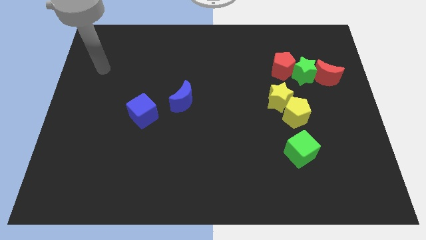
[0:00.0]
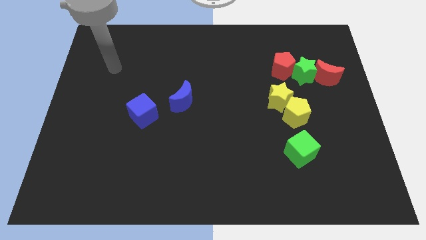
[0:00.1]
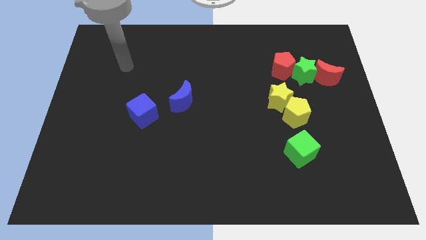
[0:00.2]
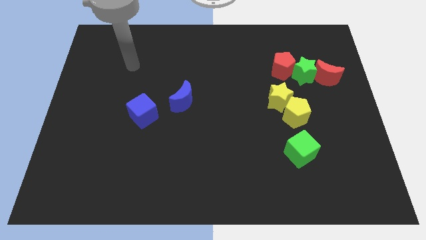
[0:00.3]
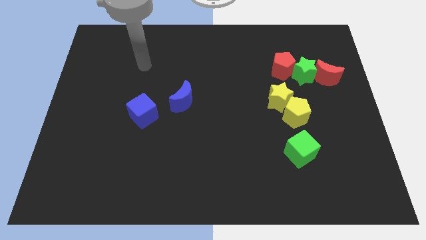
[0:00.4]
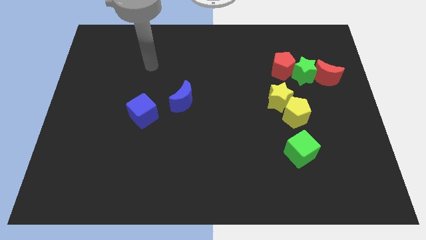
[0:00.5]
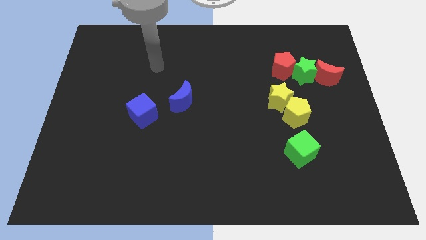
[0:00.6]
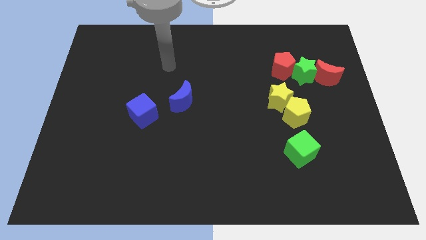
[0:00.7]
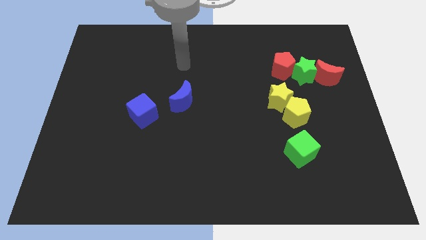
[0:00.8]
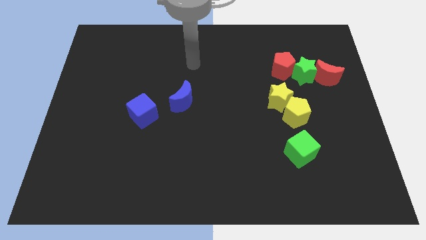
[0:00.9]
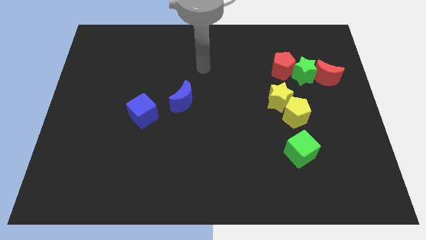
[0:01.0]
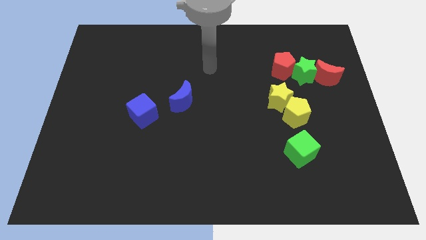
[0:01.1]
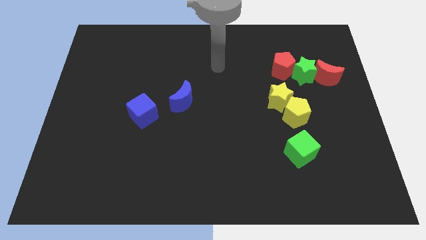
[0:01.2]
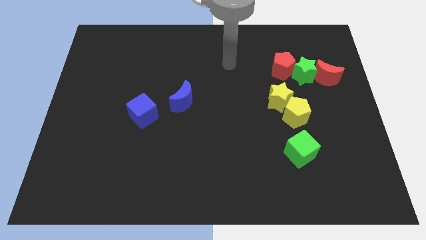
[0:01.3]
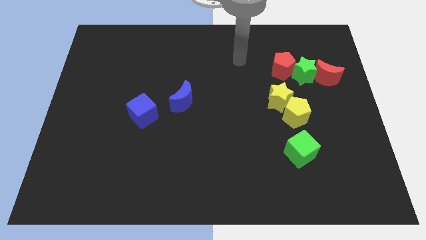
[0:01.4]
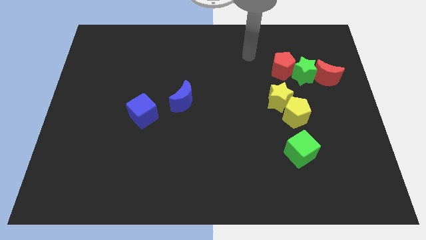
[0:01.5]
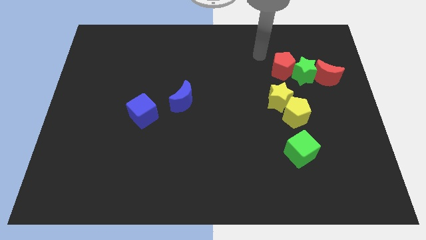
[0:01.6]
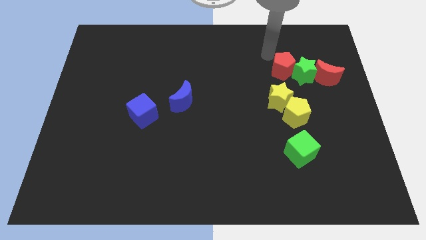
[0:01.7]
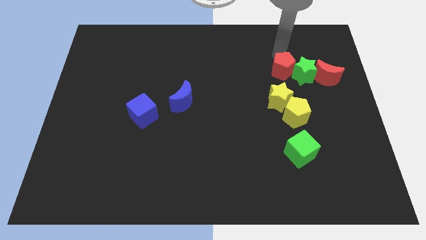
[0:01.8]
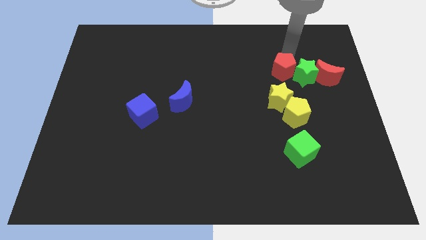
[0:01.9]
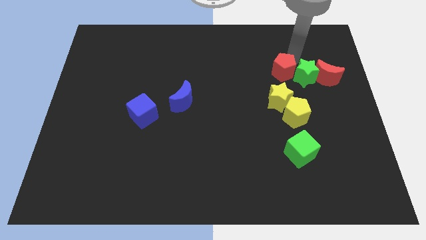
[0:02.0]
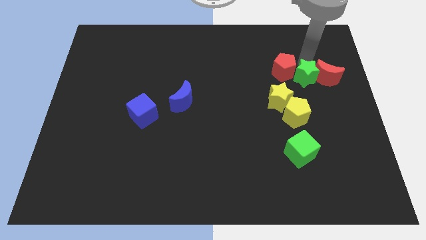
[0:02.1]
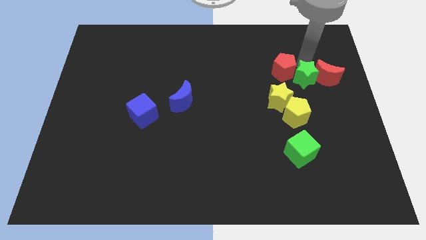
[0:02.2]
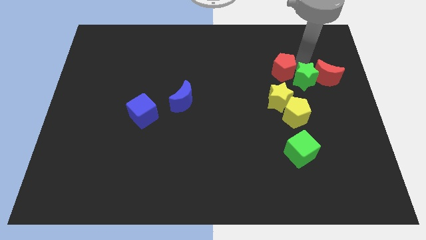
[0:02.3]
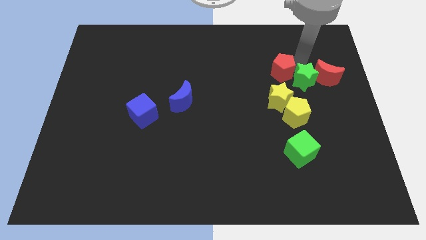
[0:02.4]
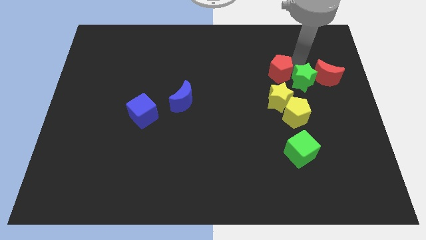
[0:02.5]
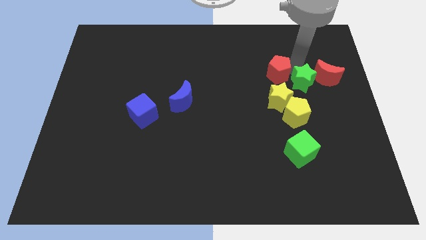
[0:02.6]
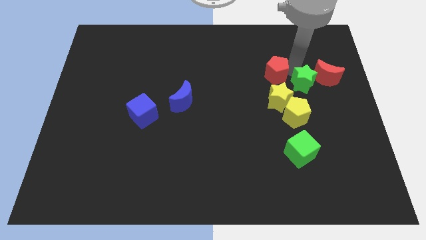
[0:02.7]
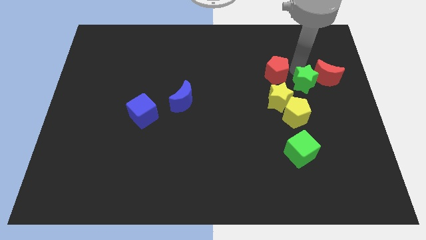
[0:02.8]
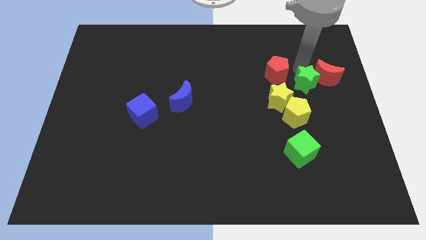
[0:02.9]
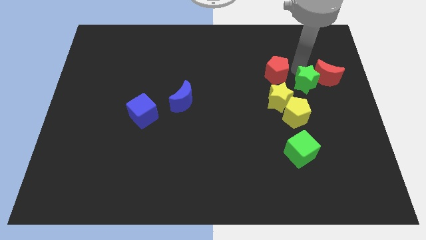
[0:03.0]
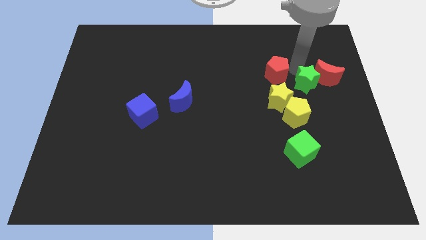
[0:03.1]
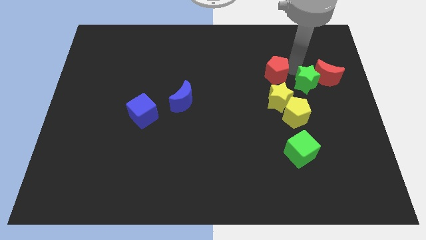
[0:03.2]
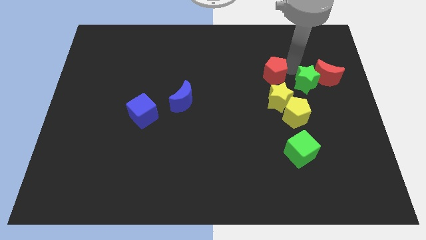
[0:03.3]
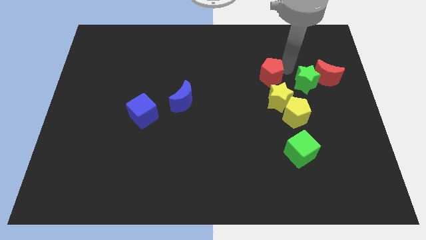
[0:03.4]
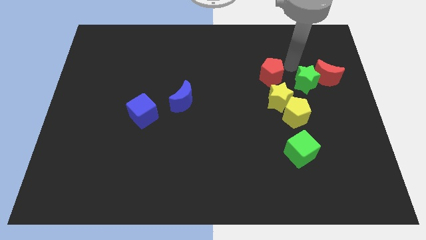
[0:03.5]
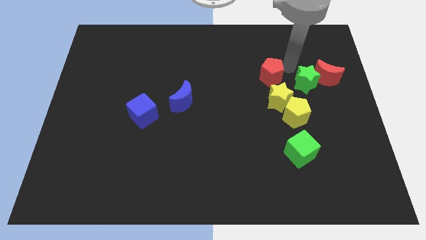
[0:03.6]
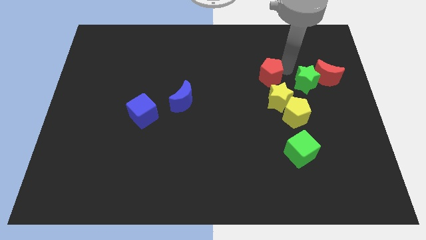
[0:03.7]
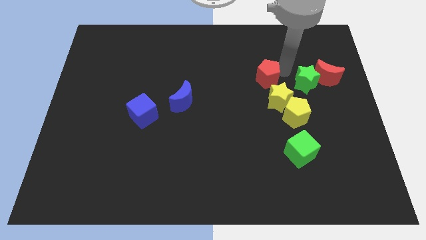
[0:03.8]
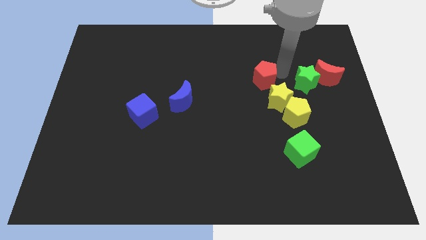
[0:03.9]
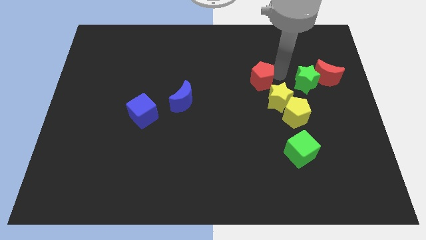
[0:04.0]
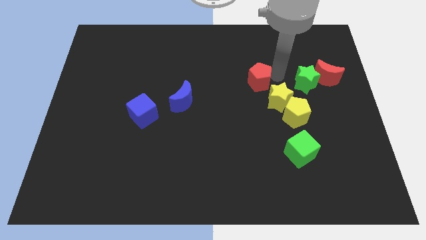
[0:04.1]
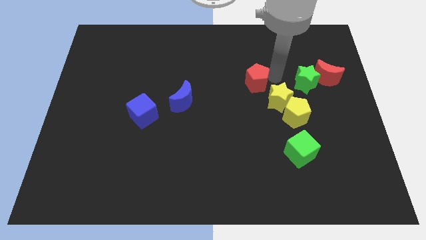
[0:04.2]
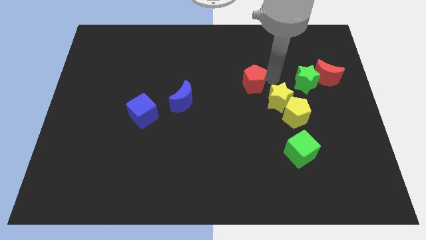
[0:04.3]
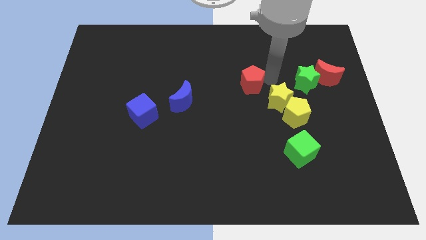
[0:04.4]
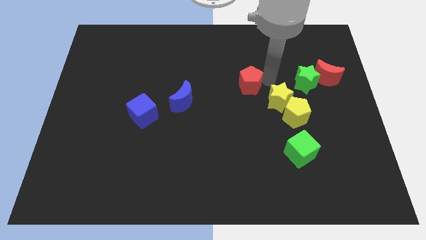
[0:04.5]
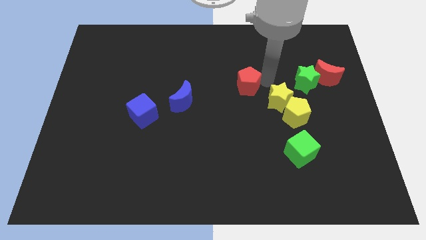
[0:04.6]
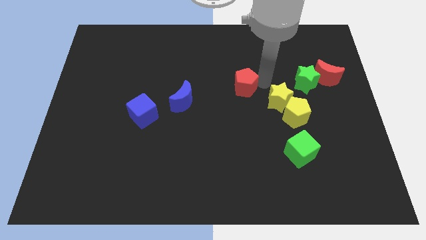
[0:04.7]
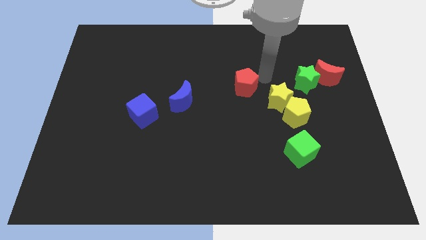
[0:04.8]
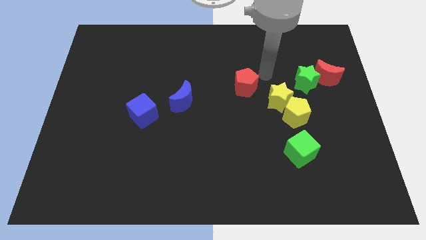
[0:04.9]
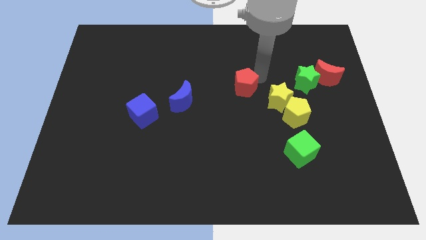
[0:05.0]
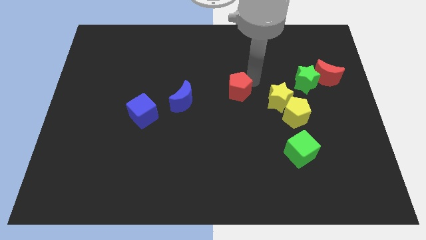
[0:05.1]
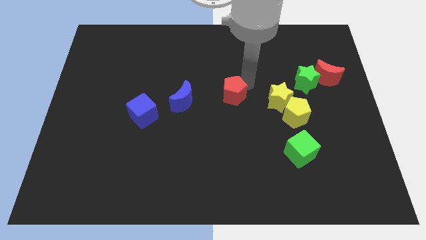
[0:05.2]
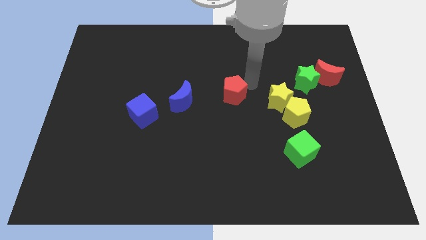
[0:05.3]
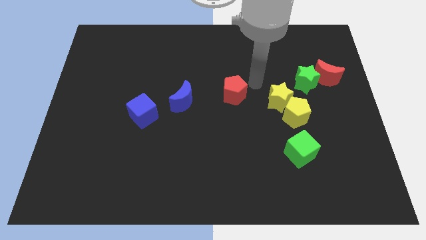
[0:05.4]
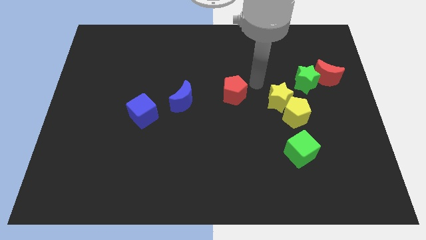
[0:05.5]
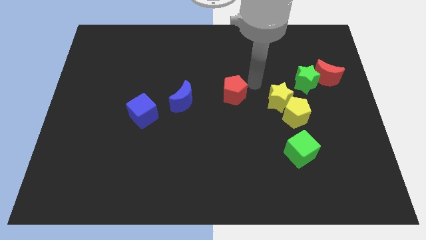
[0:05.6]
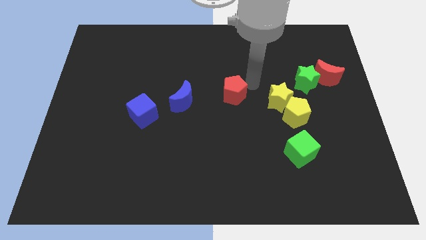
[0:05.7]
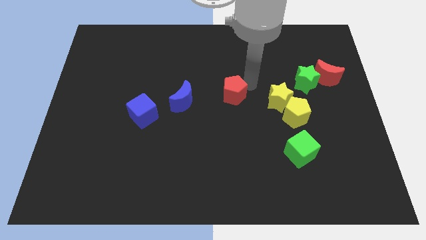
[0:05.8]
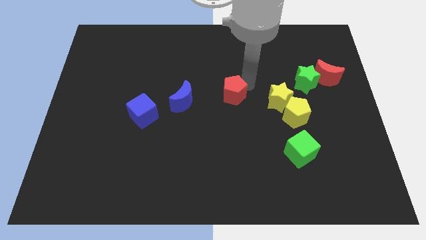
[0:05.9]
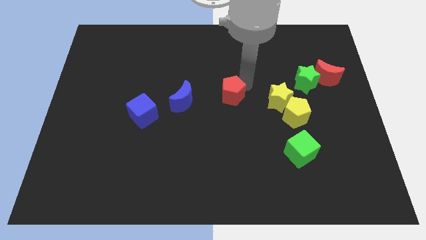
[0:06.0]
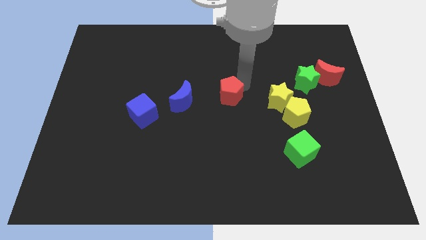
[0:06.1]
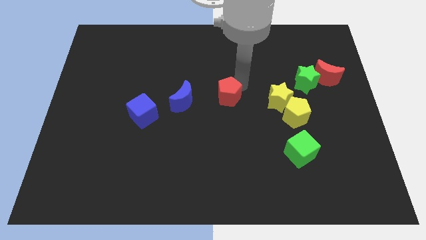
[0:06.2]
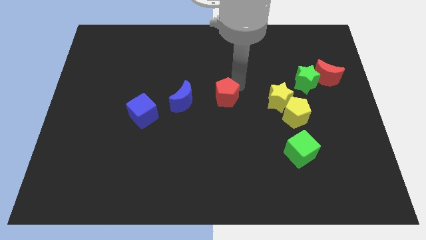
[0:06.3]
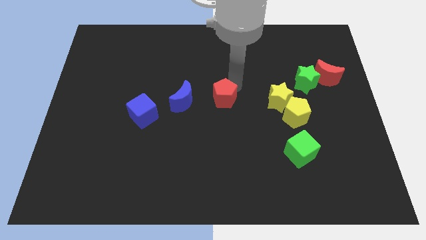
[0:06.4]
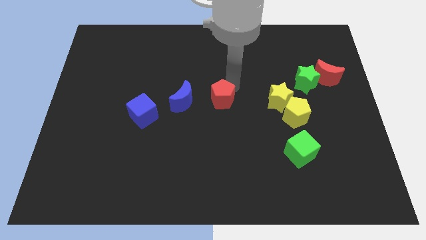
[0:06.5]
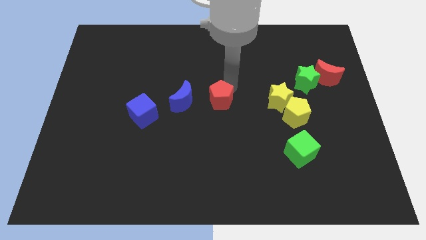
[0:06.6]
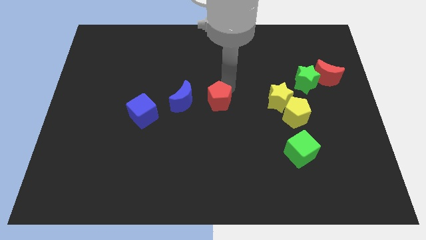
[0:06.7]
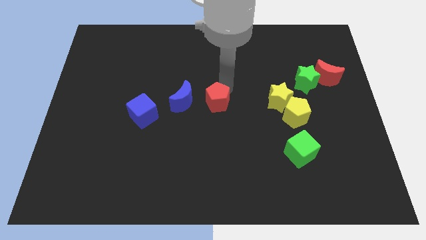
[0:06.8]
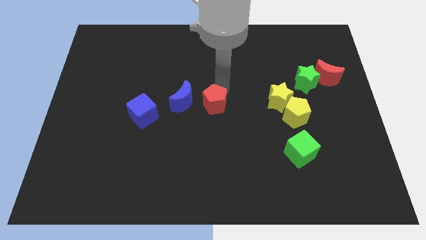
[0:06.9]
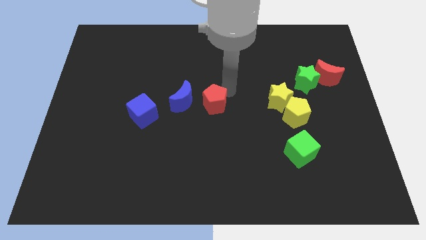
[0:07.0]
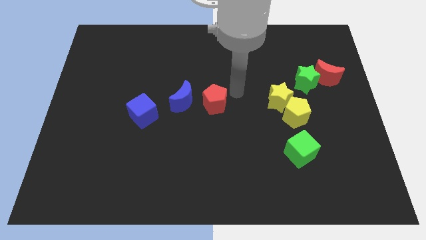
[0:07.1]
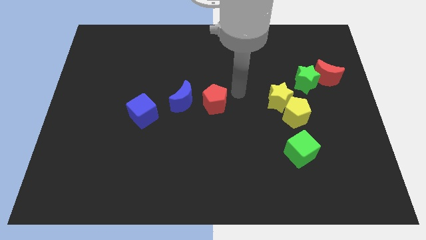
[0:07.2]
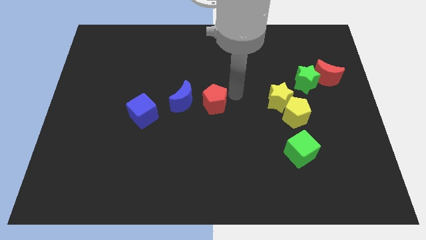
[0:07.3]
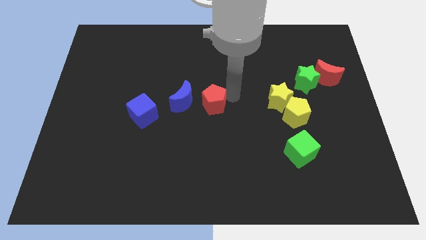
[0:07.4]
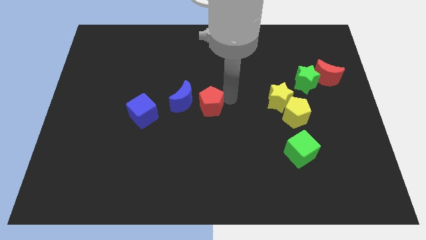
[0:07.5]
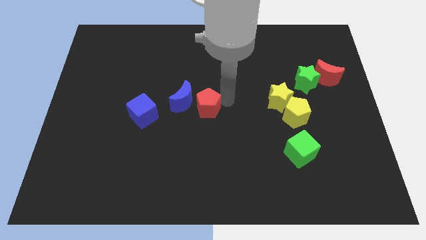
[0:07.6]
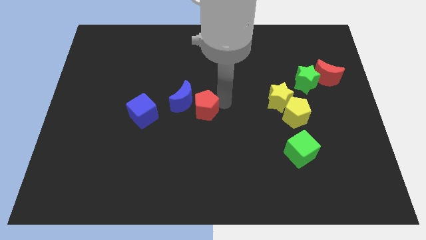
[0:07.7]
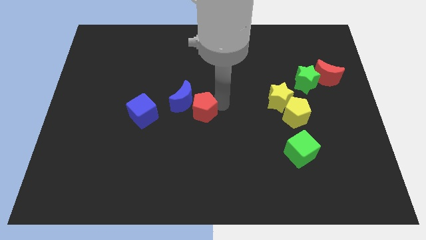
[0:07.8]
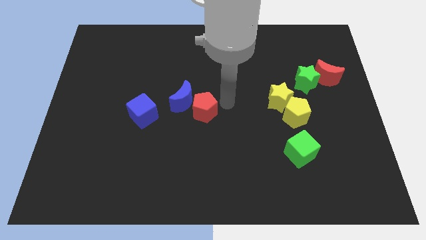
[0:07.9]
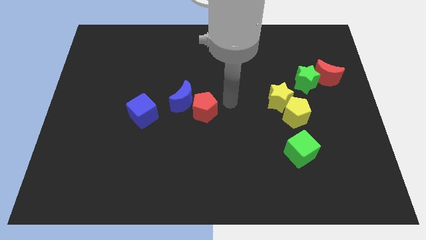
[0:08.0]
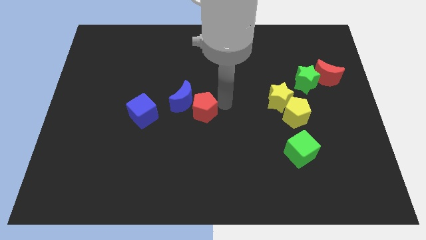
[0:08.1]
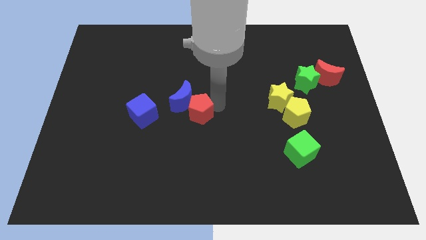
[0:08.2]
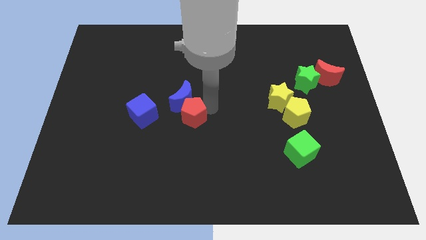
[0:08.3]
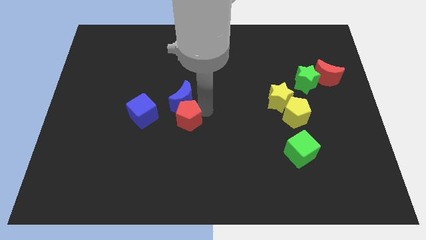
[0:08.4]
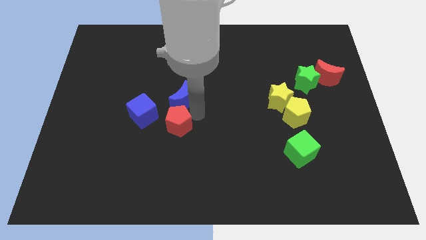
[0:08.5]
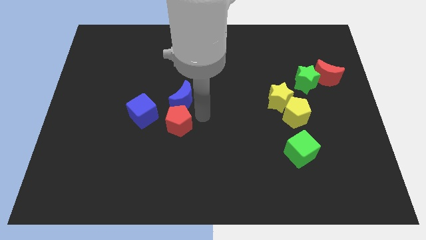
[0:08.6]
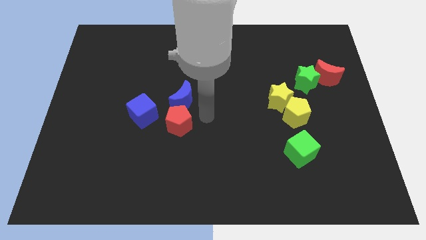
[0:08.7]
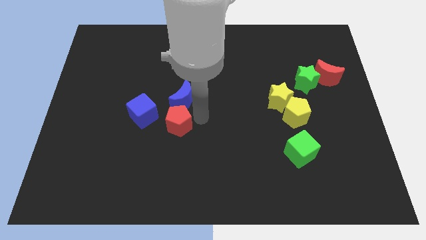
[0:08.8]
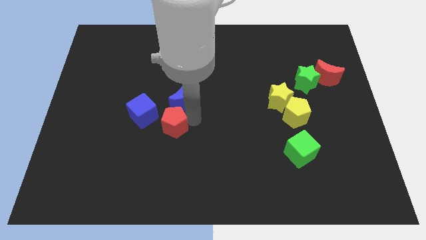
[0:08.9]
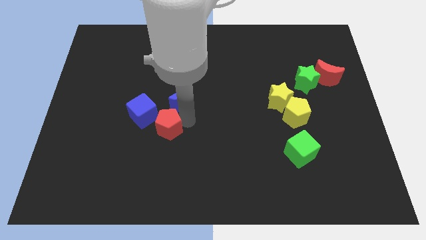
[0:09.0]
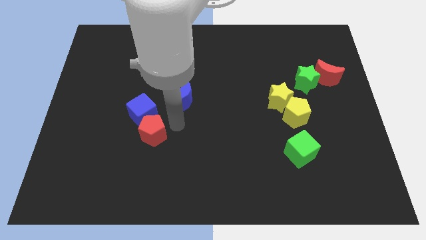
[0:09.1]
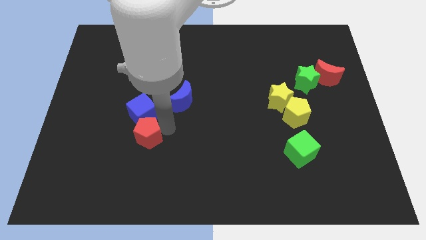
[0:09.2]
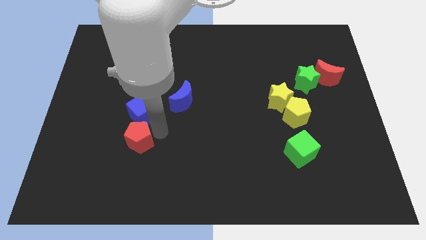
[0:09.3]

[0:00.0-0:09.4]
slide the red pentagon to the bottom left of the blue cube
